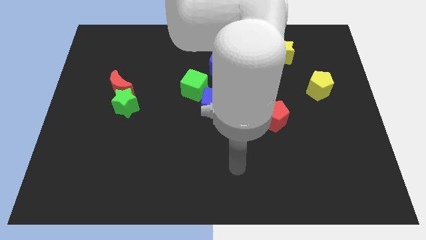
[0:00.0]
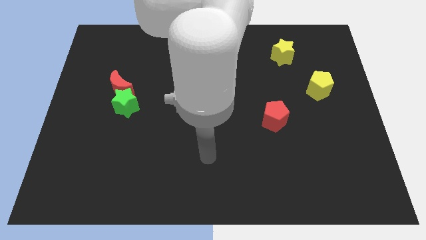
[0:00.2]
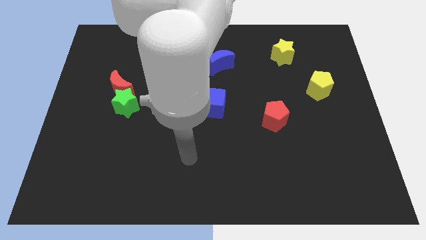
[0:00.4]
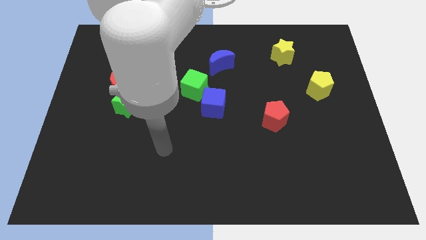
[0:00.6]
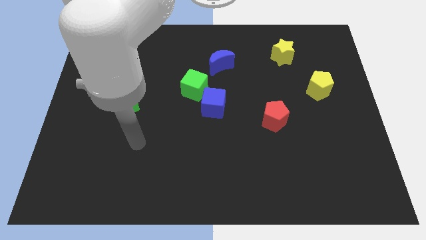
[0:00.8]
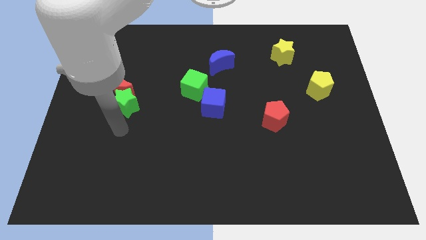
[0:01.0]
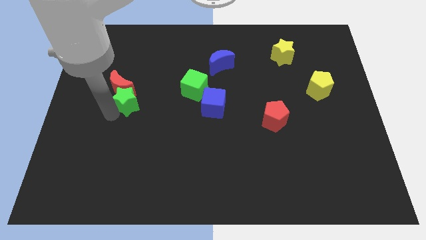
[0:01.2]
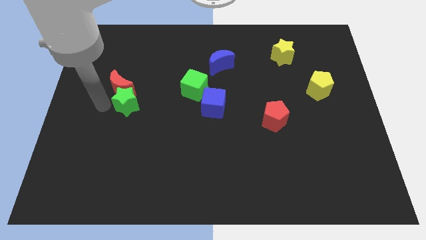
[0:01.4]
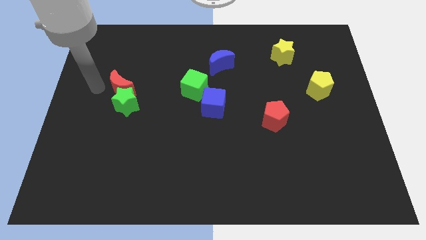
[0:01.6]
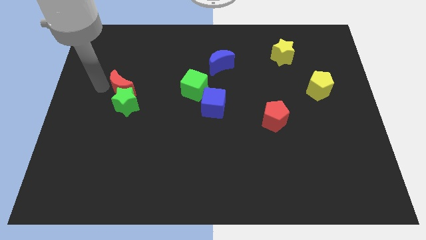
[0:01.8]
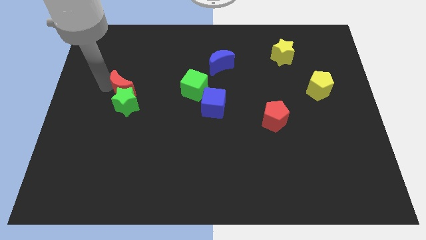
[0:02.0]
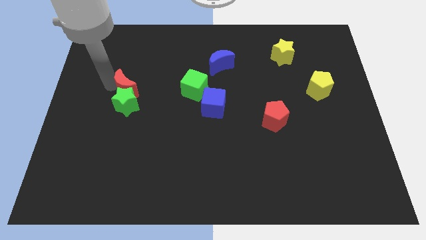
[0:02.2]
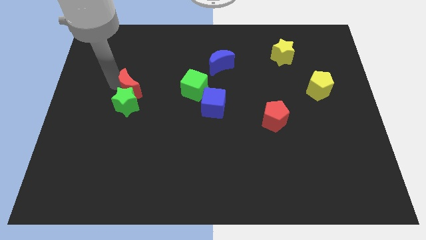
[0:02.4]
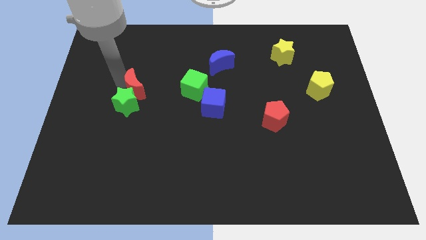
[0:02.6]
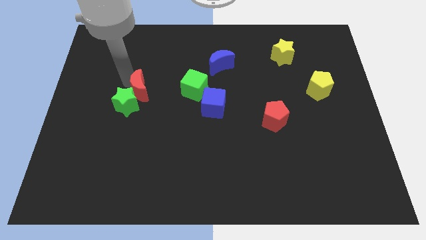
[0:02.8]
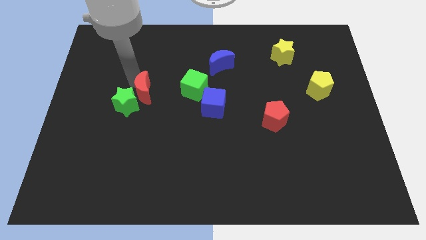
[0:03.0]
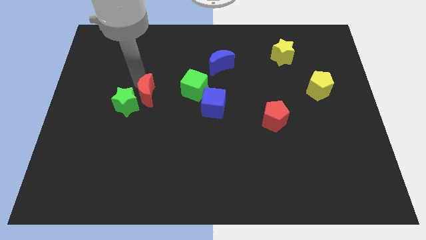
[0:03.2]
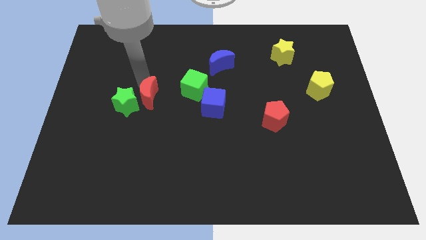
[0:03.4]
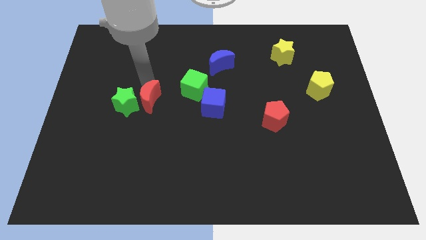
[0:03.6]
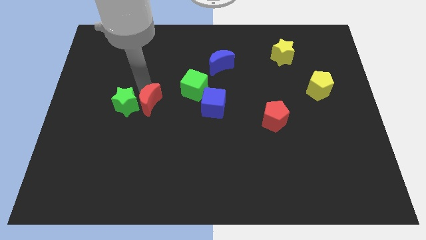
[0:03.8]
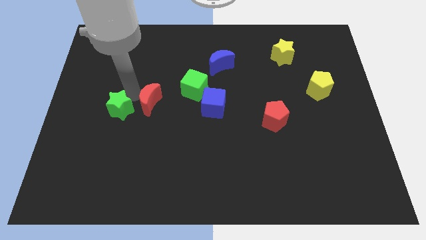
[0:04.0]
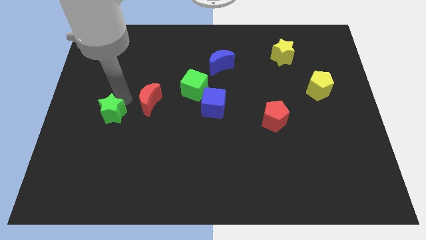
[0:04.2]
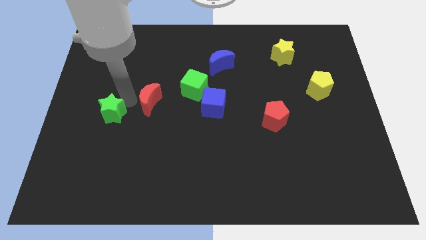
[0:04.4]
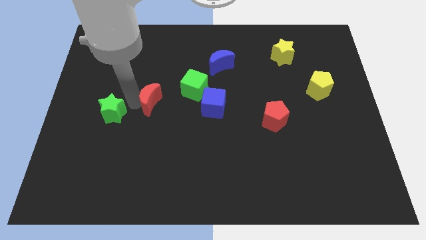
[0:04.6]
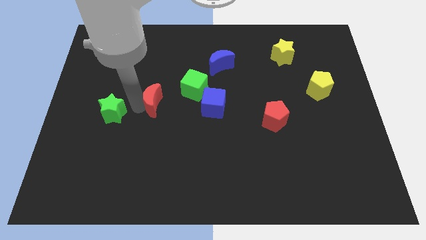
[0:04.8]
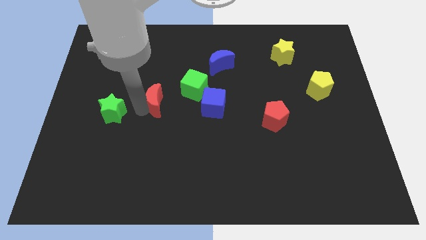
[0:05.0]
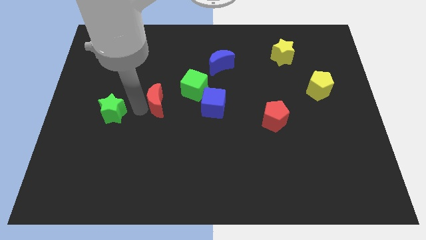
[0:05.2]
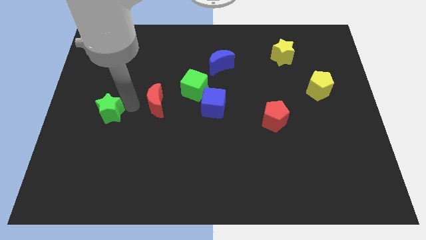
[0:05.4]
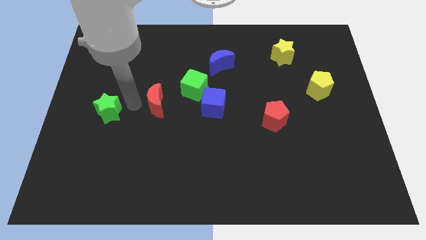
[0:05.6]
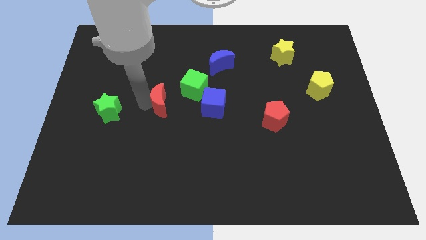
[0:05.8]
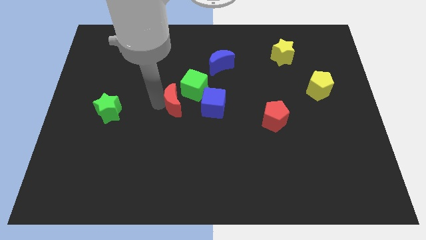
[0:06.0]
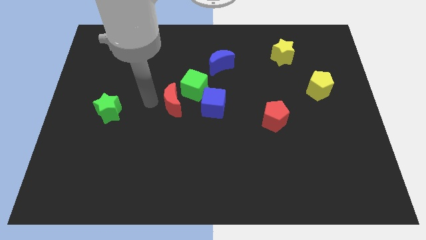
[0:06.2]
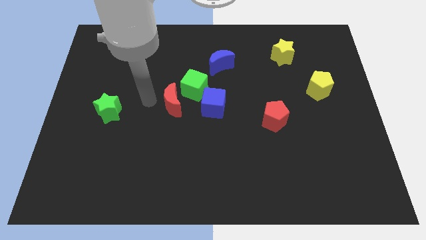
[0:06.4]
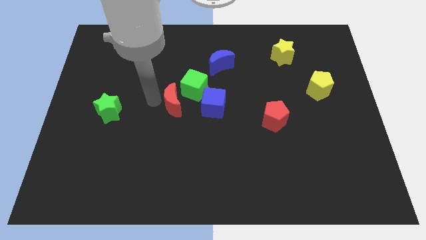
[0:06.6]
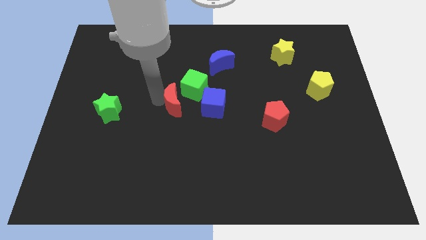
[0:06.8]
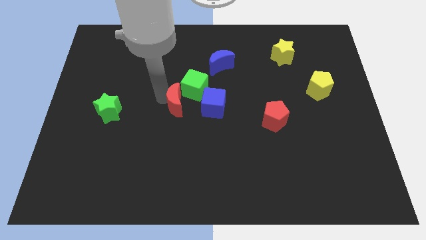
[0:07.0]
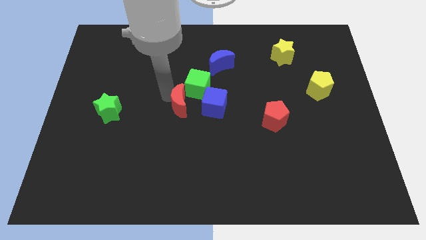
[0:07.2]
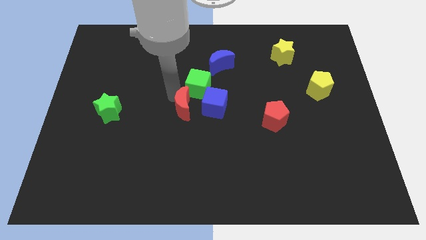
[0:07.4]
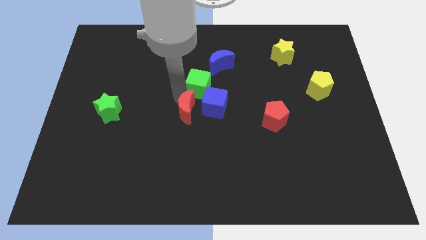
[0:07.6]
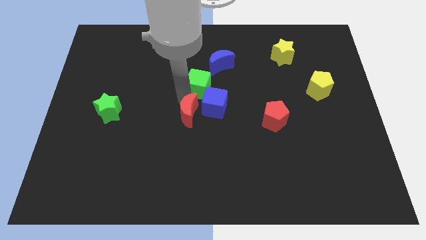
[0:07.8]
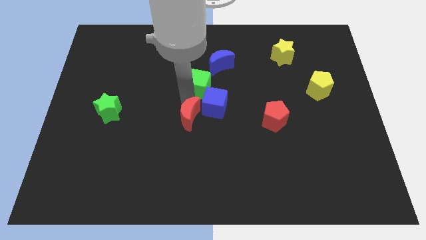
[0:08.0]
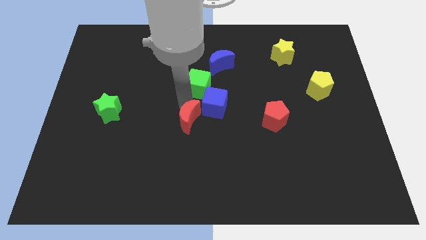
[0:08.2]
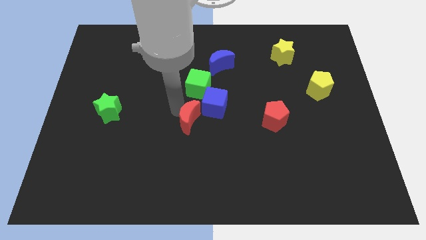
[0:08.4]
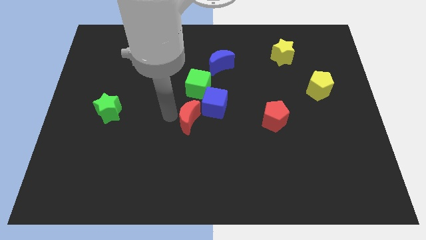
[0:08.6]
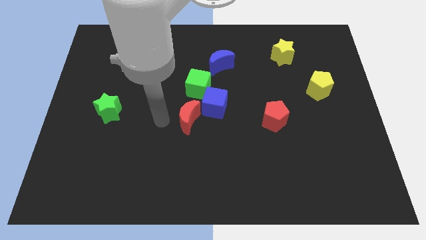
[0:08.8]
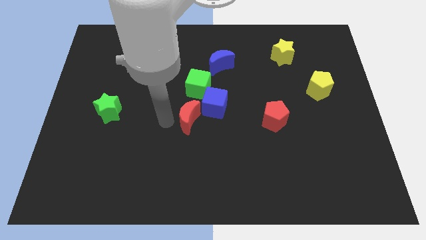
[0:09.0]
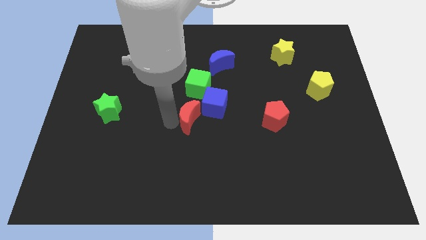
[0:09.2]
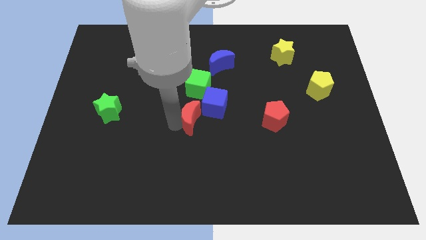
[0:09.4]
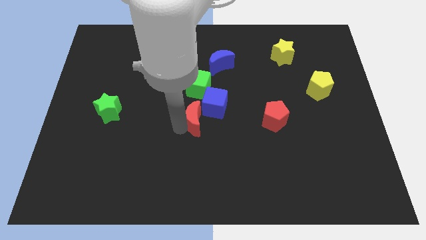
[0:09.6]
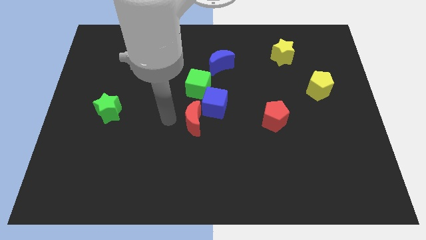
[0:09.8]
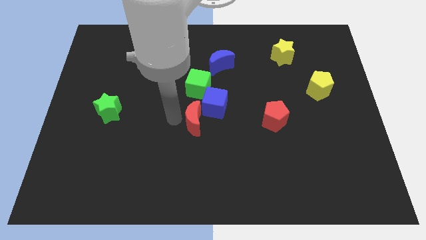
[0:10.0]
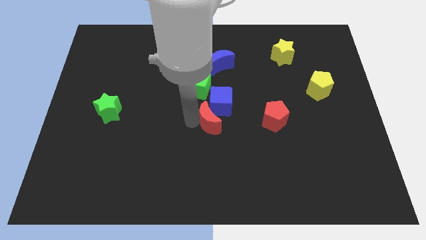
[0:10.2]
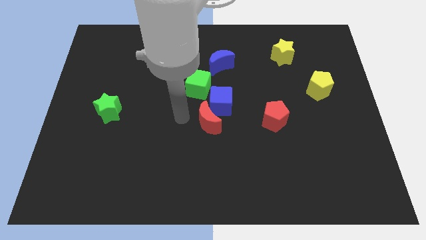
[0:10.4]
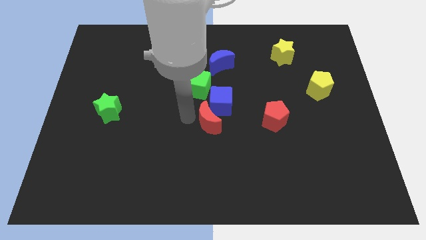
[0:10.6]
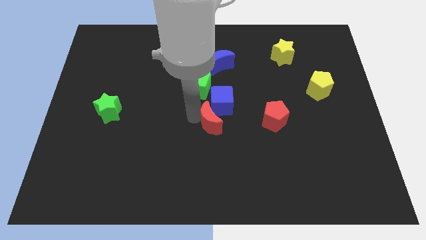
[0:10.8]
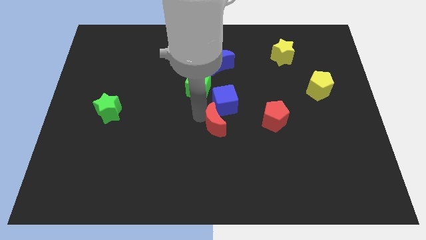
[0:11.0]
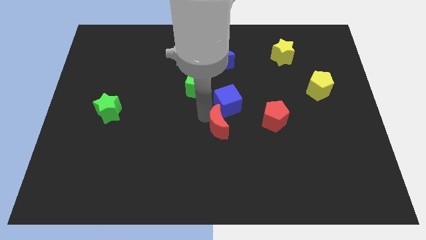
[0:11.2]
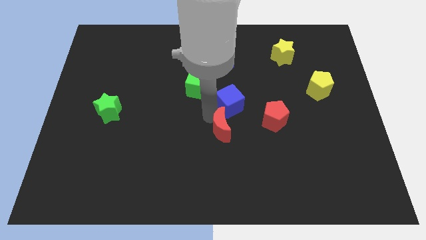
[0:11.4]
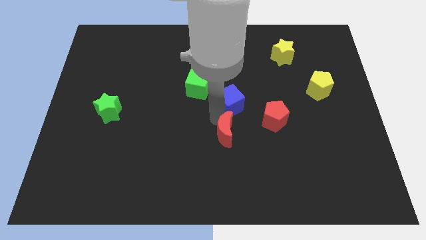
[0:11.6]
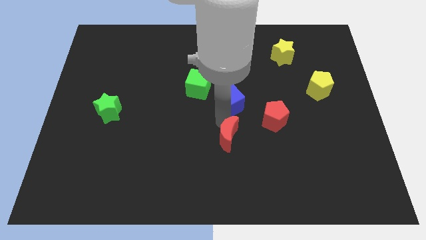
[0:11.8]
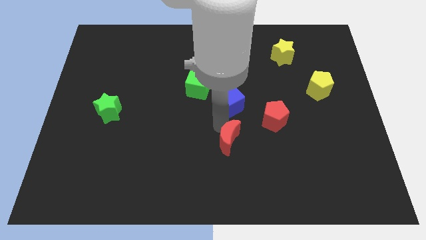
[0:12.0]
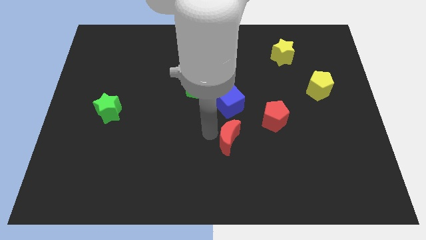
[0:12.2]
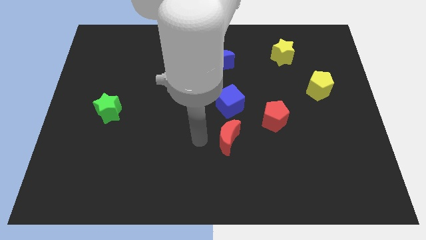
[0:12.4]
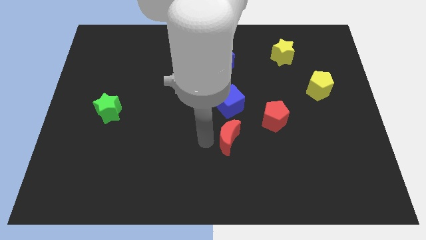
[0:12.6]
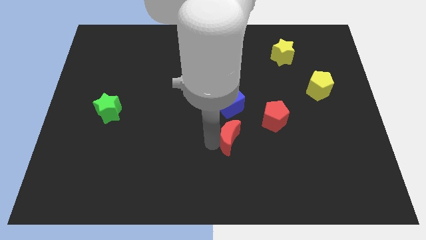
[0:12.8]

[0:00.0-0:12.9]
push the red moon to the bottom left side of the red pentagon
